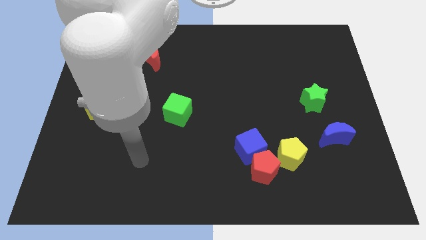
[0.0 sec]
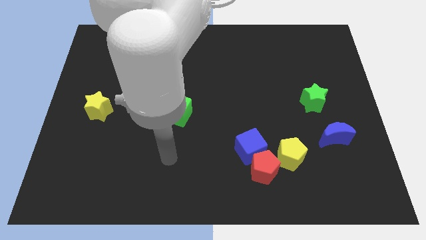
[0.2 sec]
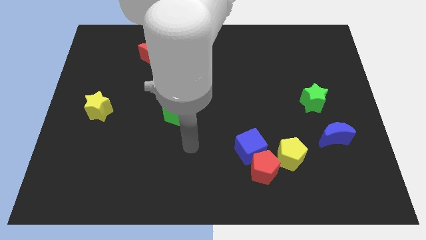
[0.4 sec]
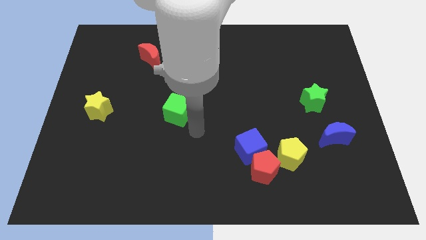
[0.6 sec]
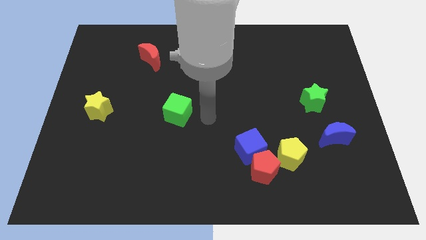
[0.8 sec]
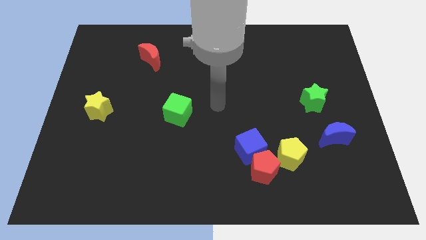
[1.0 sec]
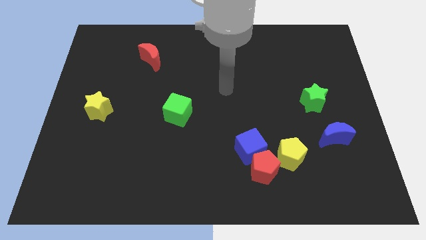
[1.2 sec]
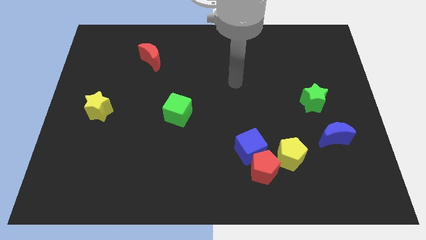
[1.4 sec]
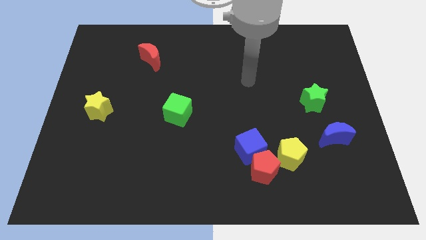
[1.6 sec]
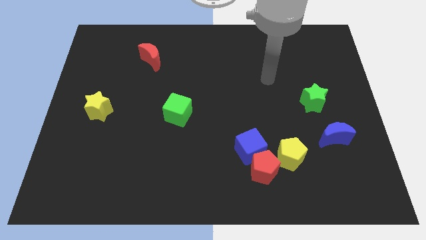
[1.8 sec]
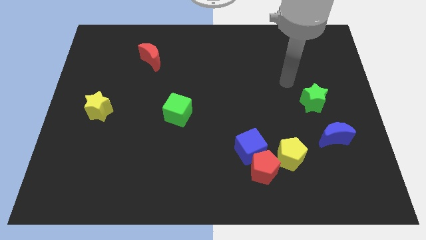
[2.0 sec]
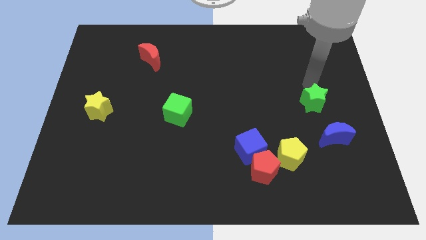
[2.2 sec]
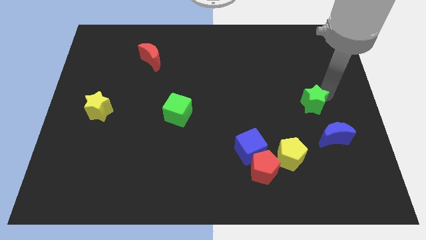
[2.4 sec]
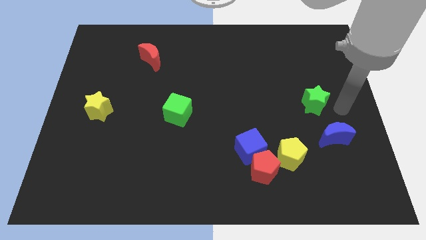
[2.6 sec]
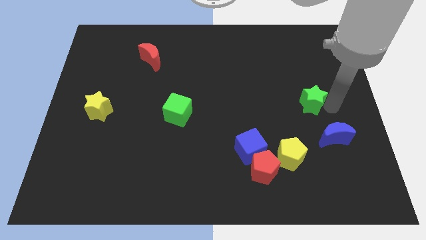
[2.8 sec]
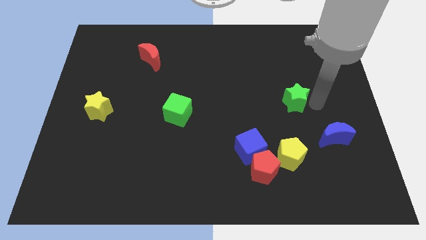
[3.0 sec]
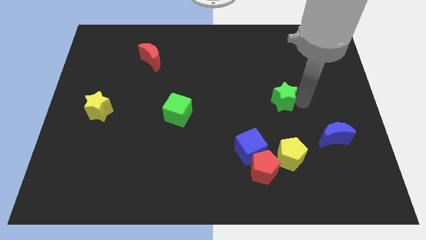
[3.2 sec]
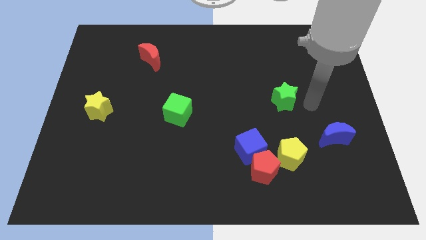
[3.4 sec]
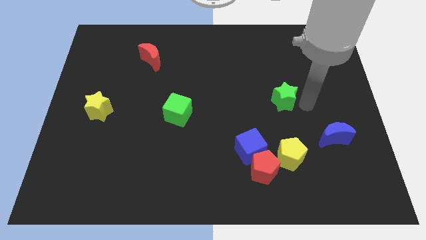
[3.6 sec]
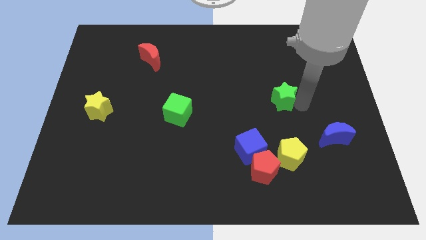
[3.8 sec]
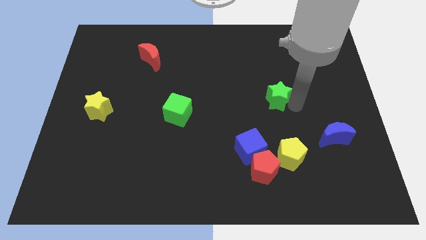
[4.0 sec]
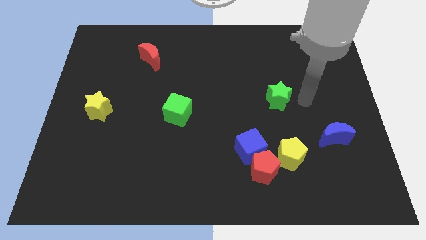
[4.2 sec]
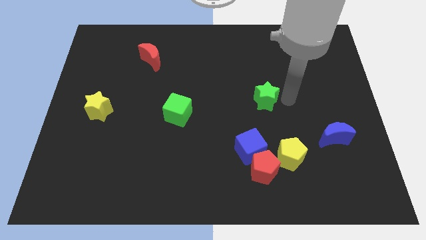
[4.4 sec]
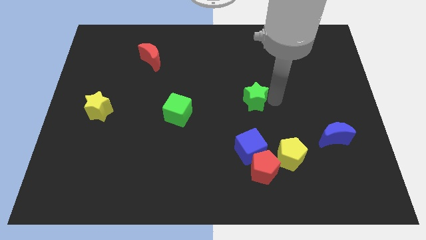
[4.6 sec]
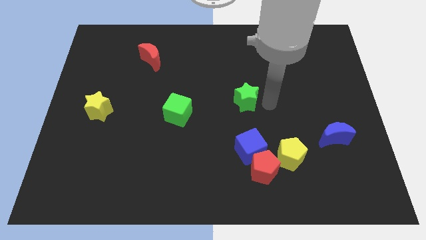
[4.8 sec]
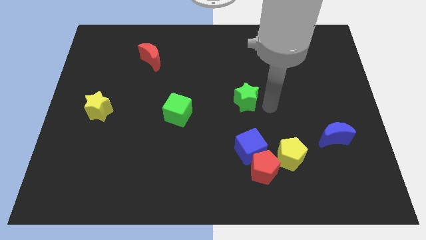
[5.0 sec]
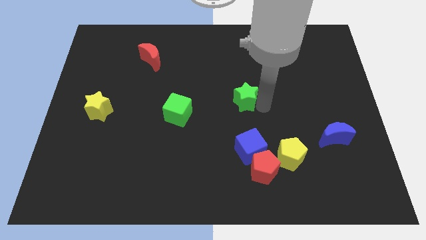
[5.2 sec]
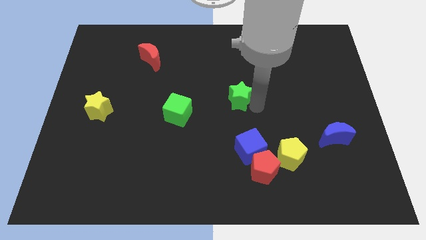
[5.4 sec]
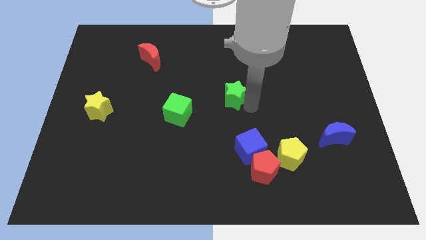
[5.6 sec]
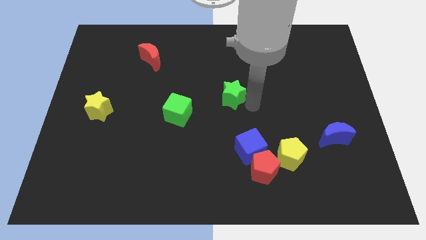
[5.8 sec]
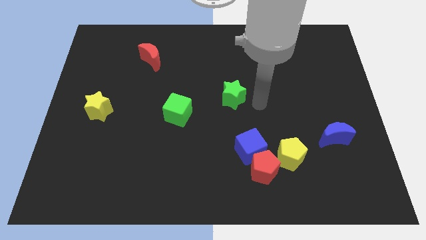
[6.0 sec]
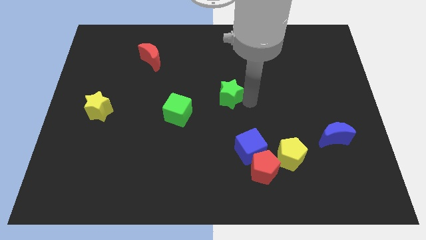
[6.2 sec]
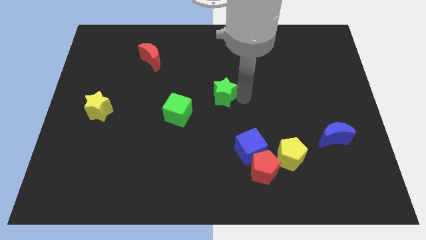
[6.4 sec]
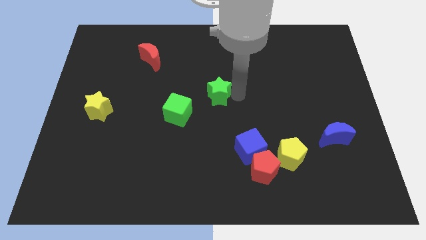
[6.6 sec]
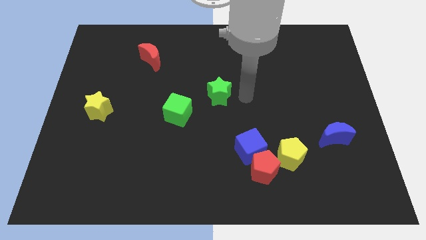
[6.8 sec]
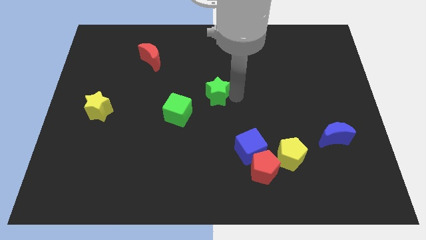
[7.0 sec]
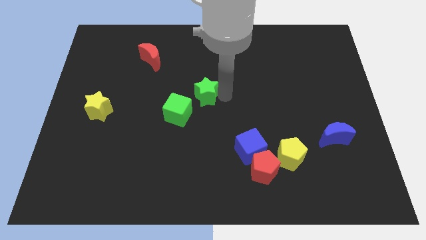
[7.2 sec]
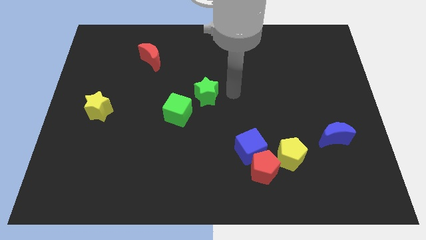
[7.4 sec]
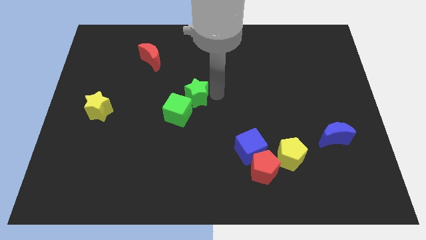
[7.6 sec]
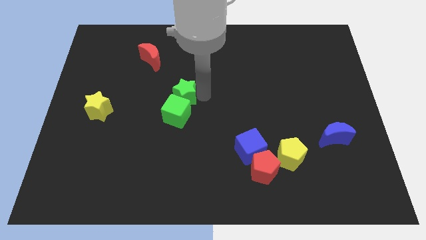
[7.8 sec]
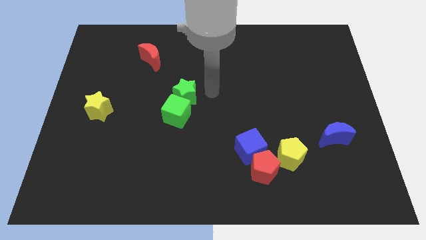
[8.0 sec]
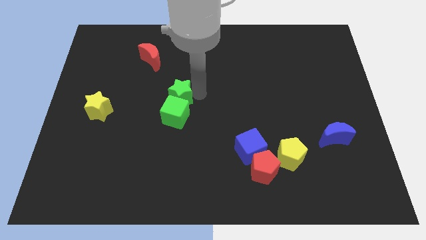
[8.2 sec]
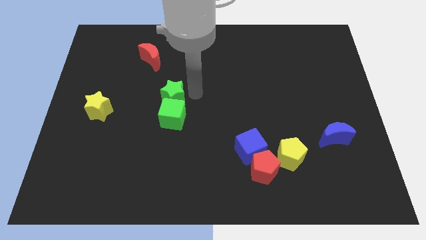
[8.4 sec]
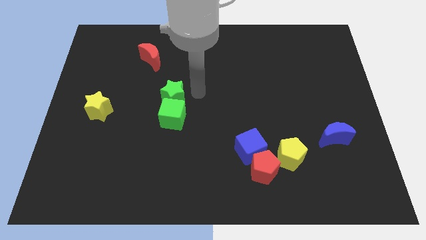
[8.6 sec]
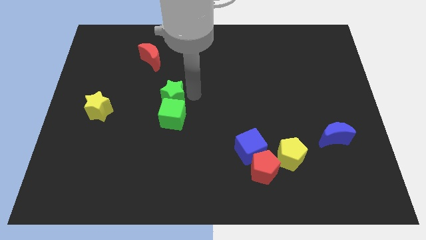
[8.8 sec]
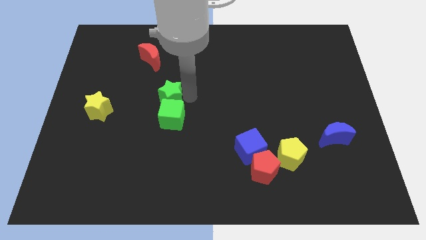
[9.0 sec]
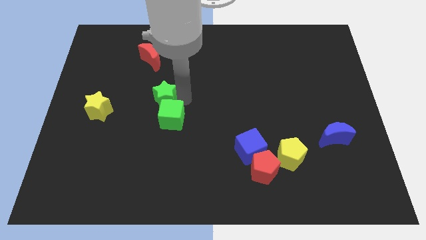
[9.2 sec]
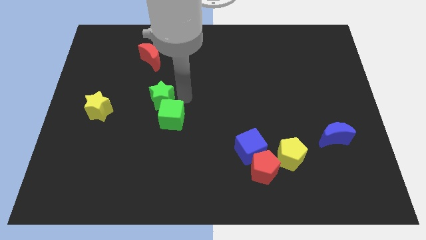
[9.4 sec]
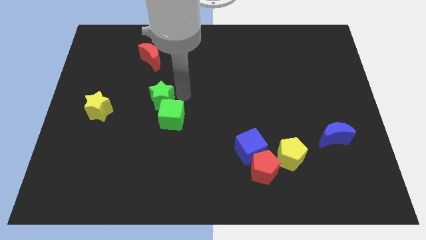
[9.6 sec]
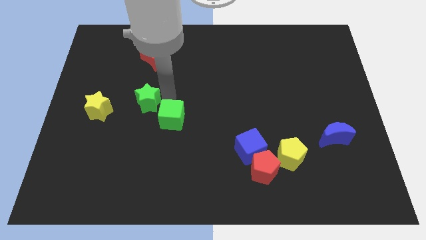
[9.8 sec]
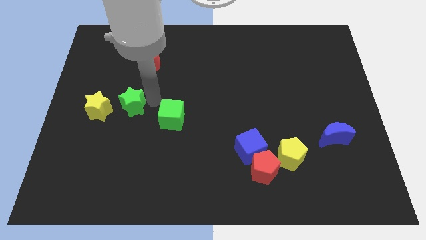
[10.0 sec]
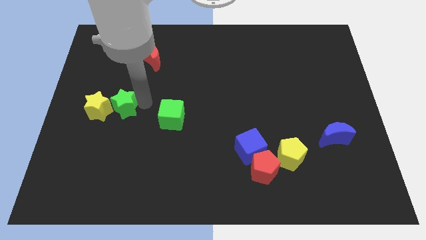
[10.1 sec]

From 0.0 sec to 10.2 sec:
slide the green star close to the yellow star

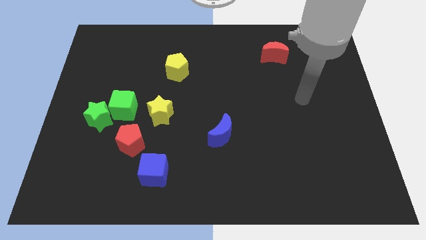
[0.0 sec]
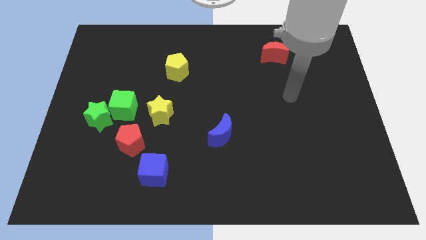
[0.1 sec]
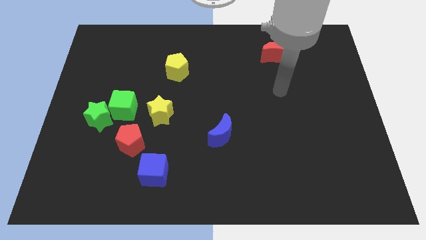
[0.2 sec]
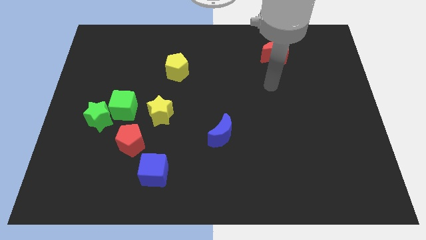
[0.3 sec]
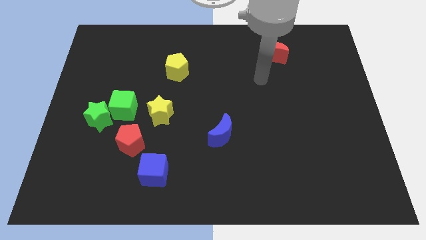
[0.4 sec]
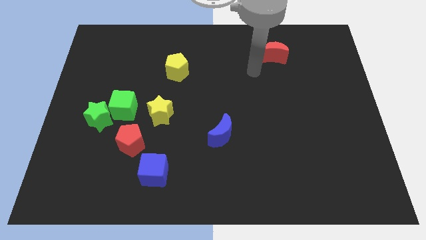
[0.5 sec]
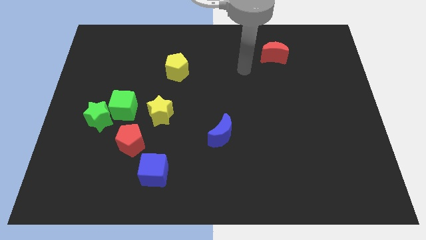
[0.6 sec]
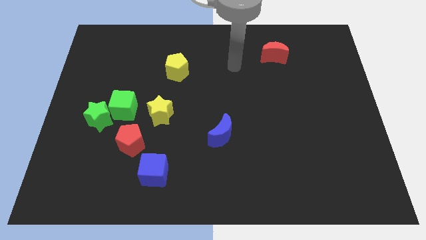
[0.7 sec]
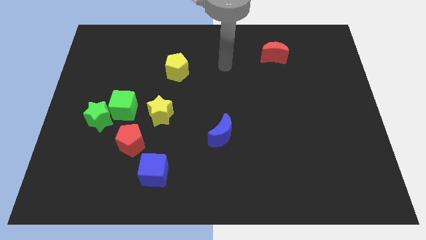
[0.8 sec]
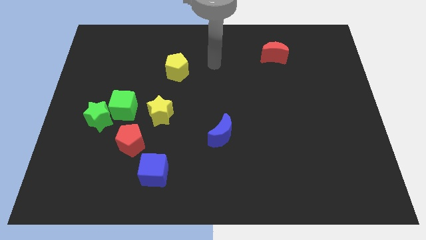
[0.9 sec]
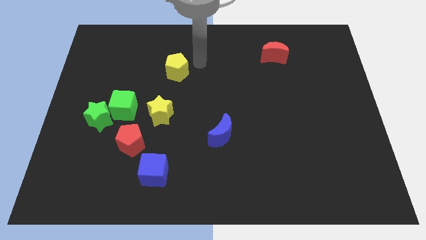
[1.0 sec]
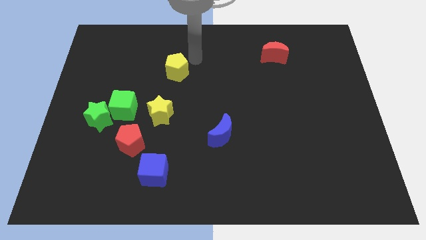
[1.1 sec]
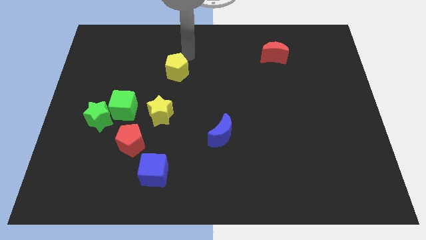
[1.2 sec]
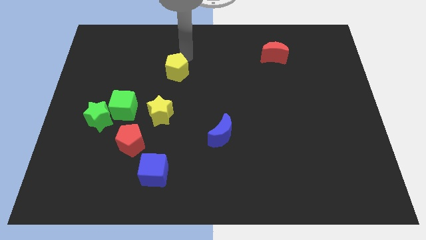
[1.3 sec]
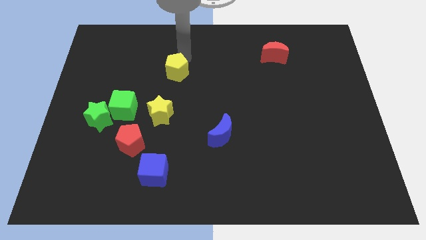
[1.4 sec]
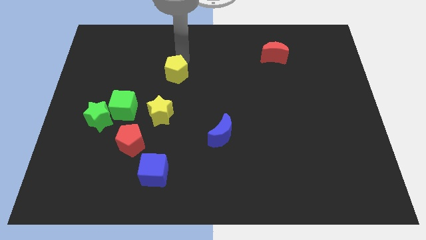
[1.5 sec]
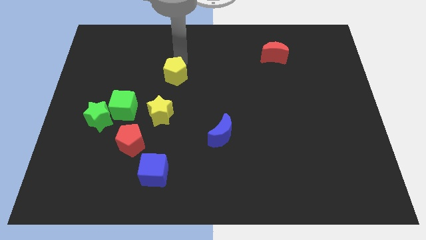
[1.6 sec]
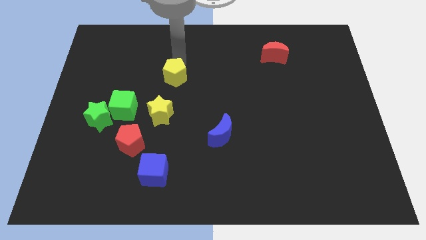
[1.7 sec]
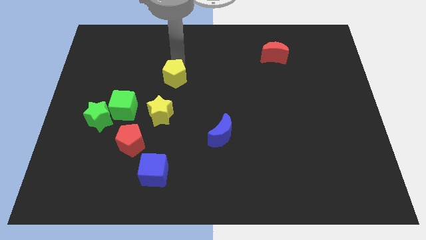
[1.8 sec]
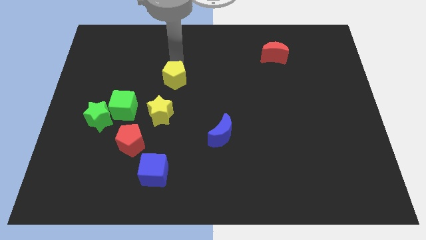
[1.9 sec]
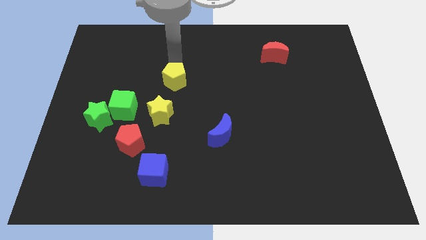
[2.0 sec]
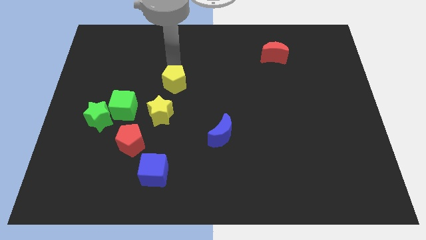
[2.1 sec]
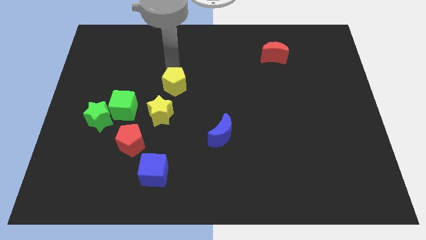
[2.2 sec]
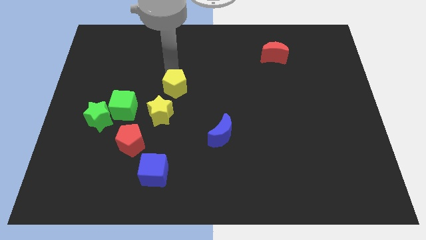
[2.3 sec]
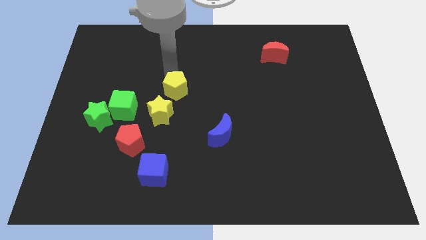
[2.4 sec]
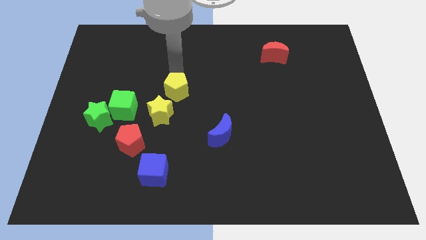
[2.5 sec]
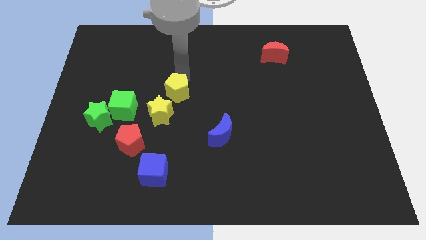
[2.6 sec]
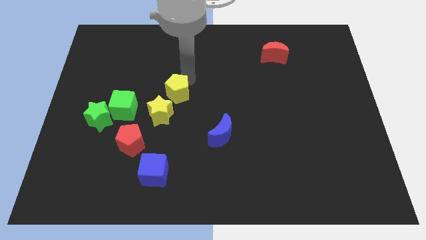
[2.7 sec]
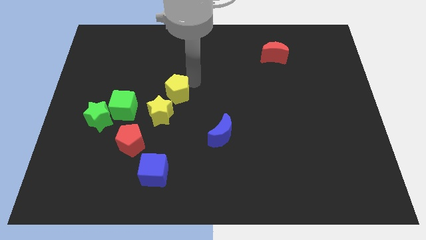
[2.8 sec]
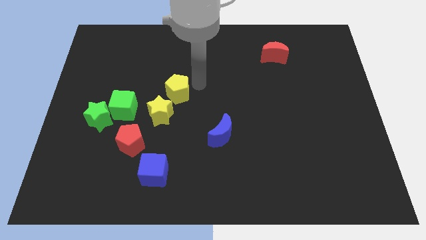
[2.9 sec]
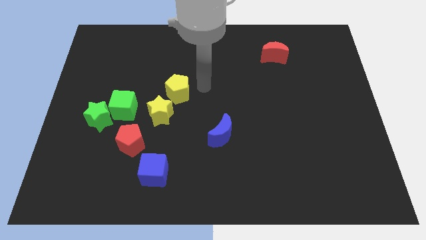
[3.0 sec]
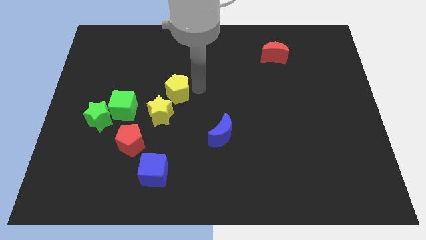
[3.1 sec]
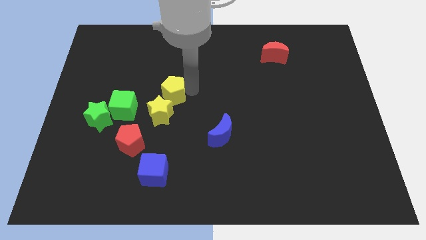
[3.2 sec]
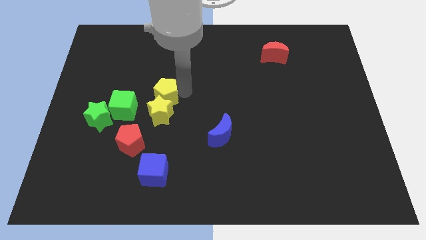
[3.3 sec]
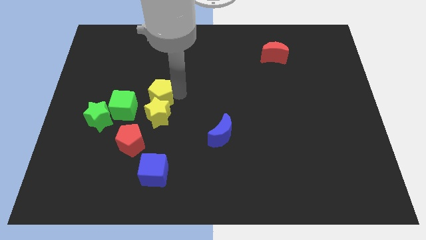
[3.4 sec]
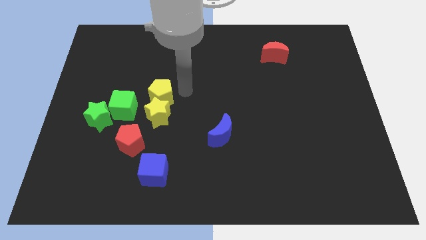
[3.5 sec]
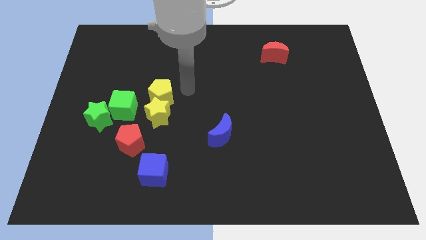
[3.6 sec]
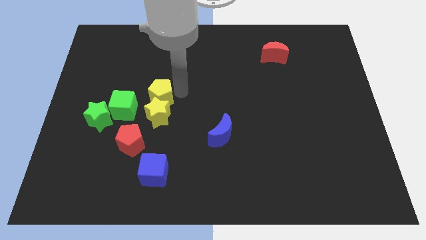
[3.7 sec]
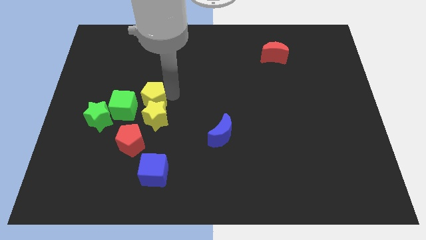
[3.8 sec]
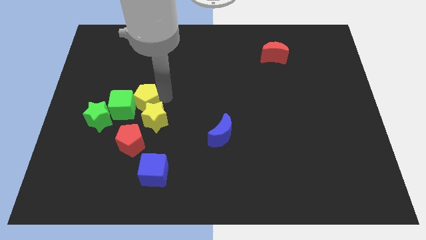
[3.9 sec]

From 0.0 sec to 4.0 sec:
slide the yellow pentagon towards the green cube
